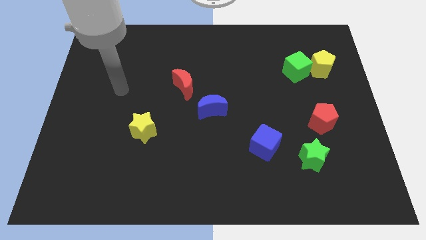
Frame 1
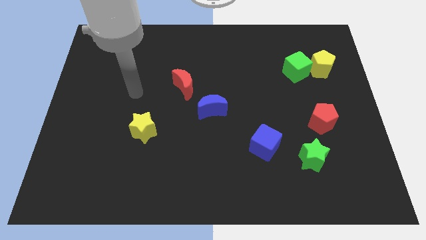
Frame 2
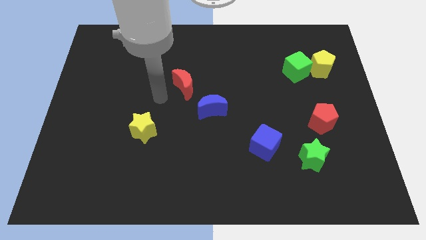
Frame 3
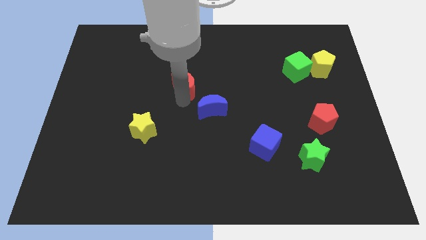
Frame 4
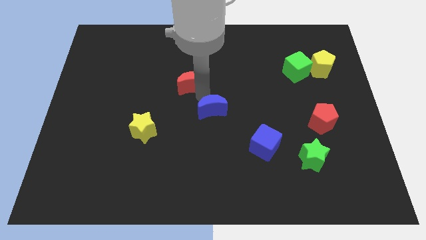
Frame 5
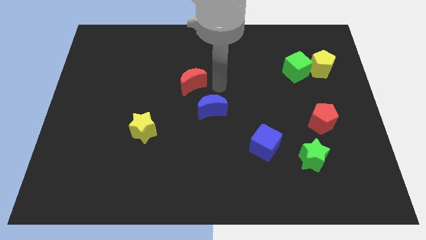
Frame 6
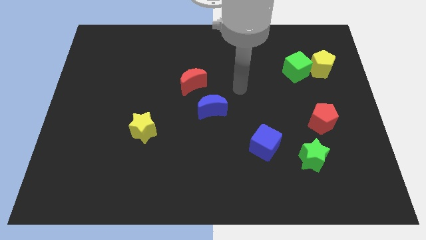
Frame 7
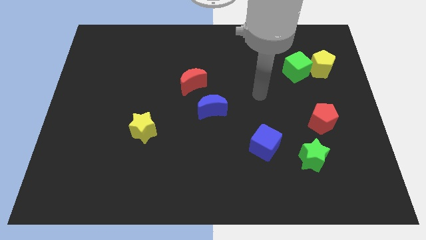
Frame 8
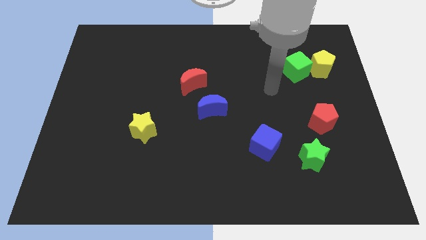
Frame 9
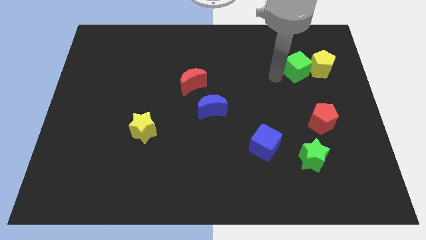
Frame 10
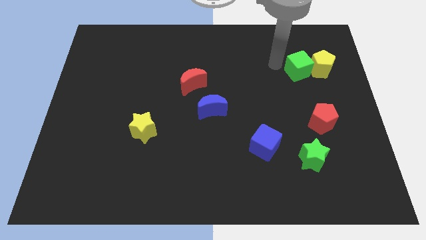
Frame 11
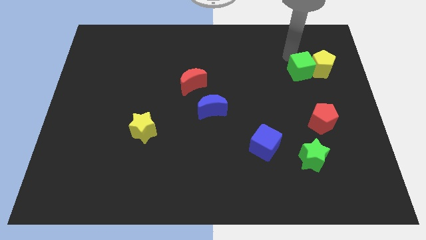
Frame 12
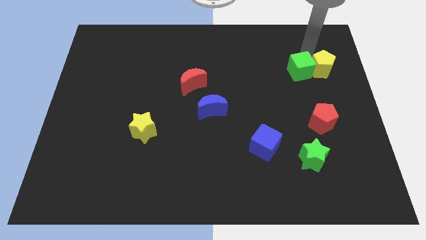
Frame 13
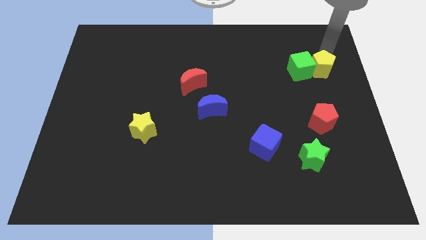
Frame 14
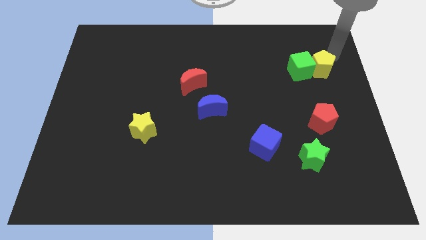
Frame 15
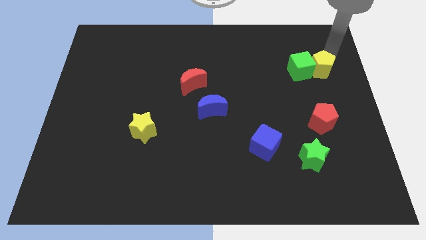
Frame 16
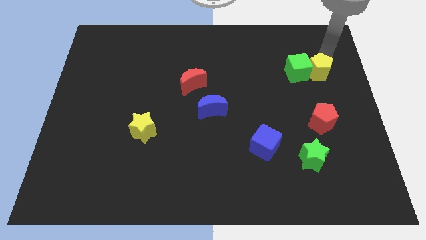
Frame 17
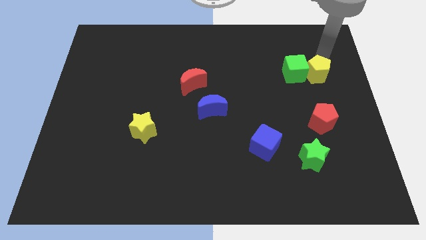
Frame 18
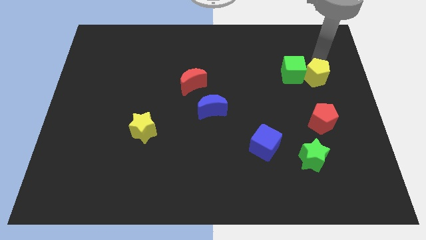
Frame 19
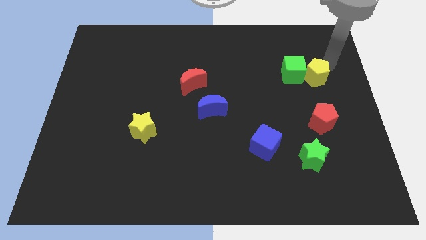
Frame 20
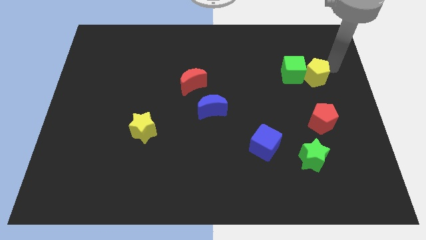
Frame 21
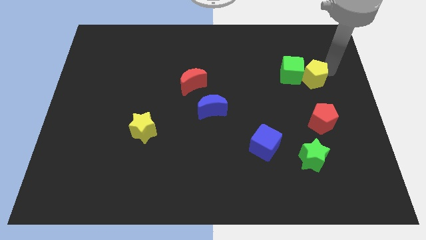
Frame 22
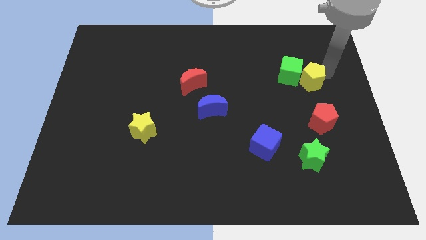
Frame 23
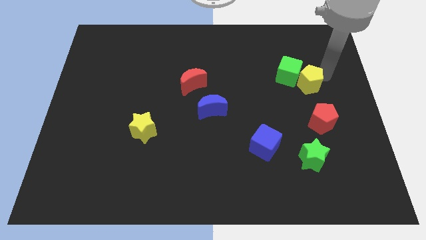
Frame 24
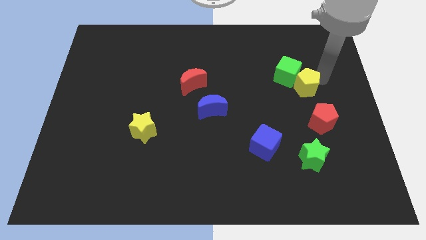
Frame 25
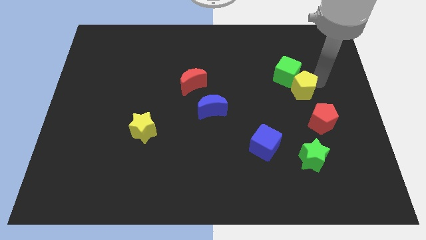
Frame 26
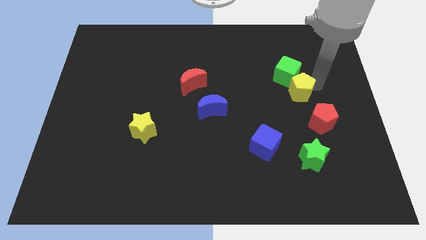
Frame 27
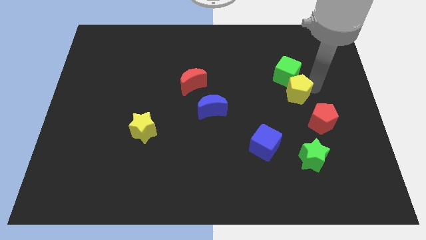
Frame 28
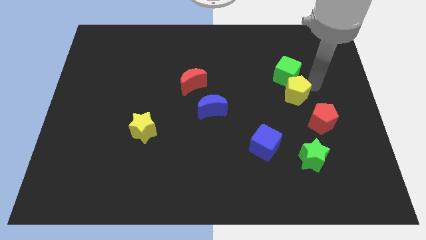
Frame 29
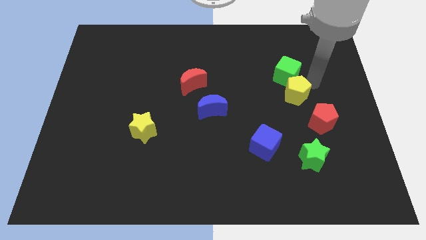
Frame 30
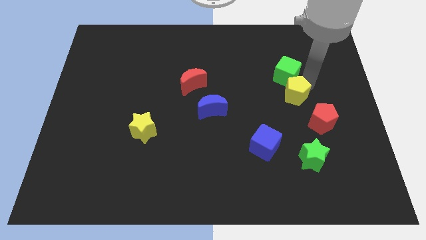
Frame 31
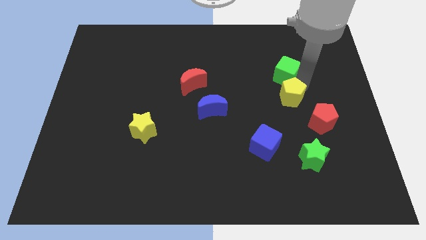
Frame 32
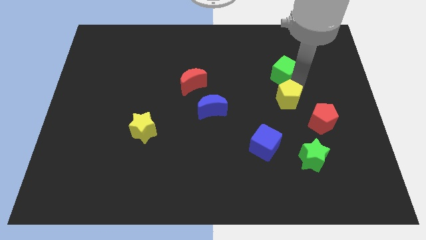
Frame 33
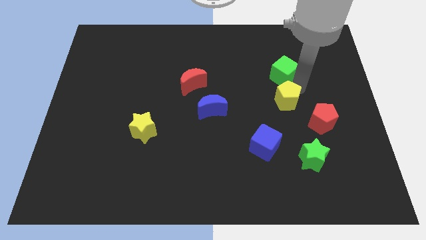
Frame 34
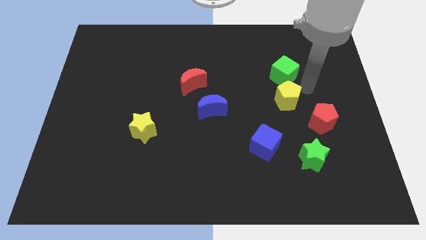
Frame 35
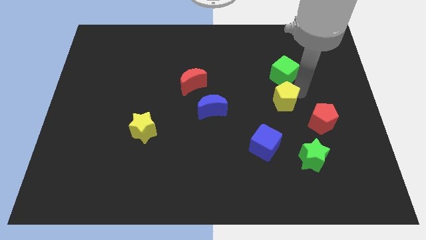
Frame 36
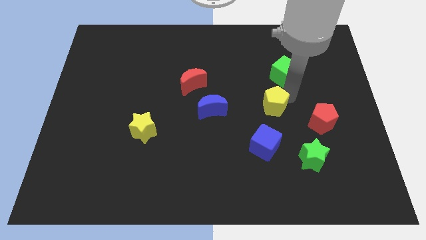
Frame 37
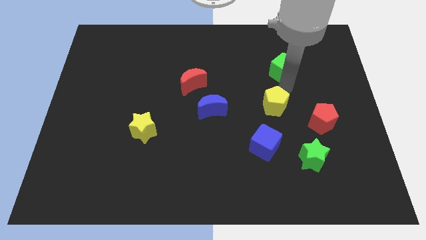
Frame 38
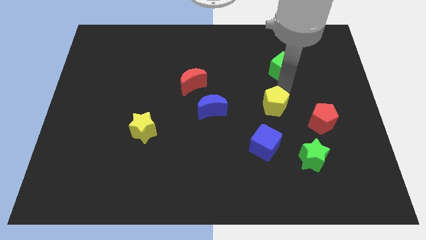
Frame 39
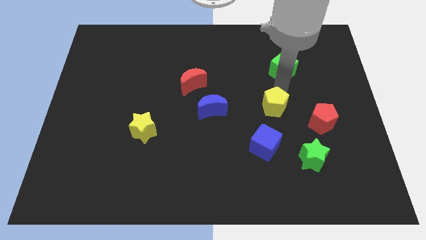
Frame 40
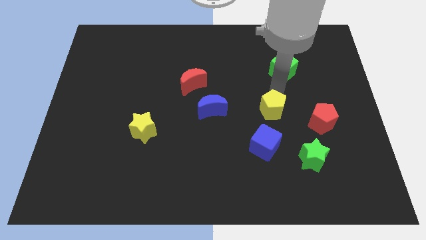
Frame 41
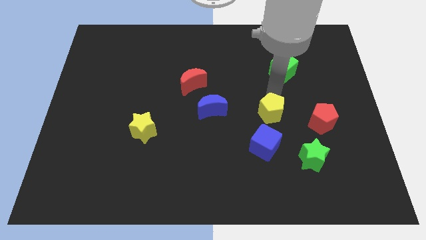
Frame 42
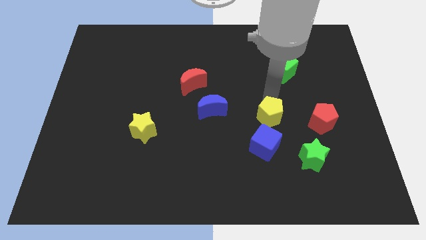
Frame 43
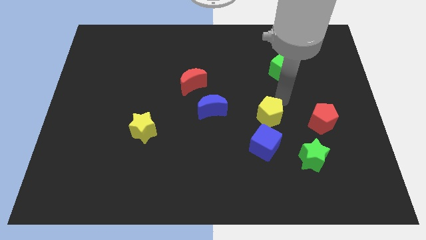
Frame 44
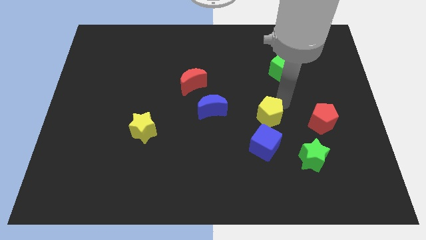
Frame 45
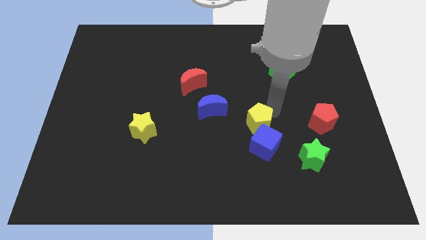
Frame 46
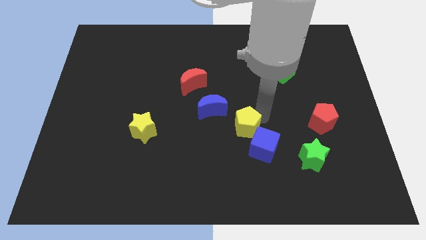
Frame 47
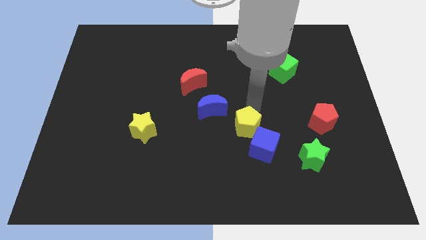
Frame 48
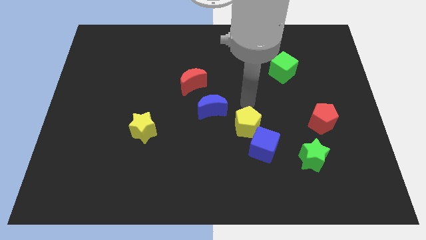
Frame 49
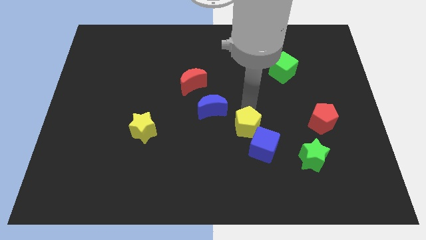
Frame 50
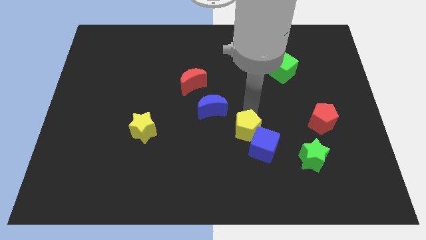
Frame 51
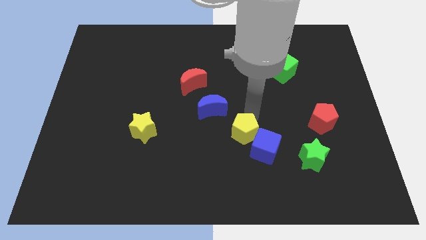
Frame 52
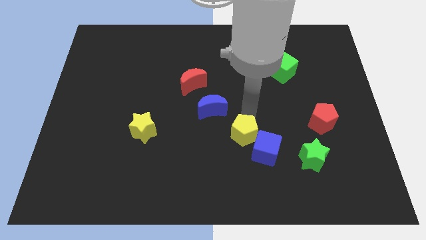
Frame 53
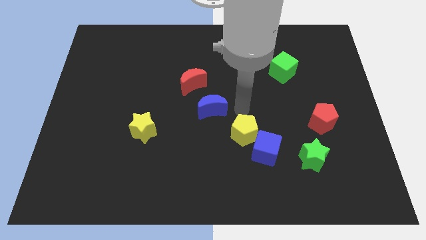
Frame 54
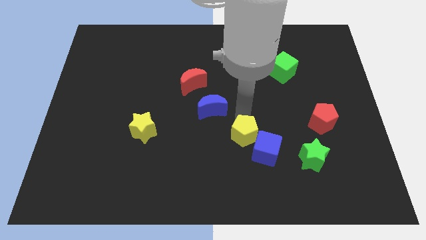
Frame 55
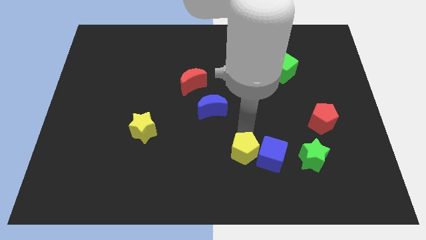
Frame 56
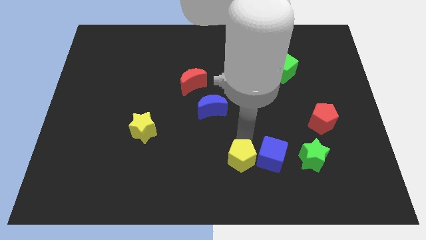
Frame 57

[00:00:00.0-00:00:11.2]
push the yellow pentagon to the bottom left side of the blue cube

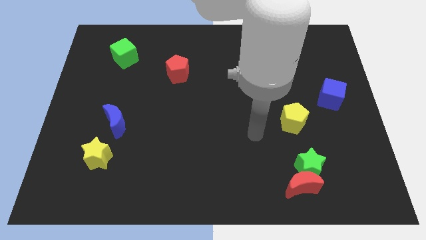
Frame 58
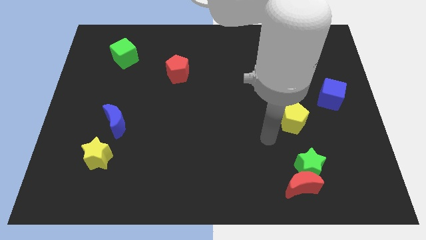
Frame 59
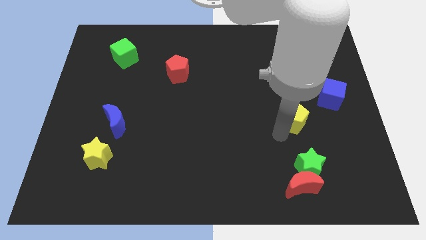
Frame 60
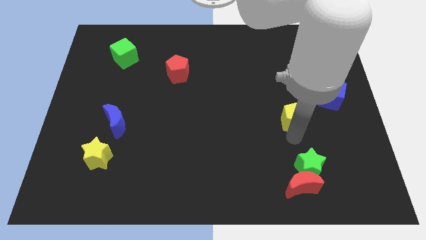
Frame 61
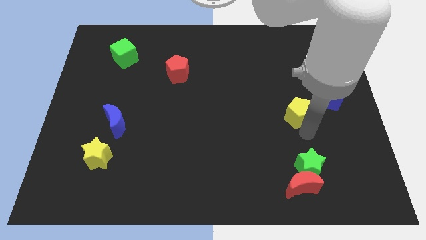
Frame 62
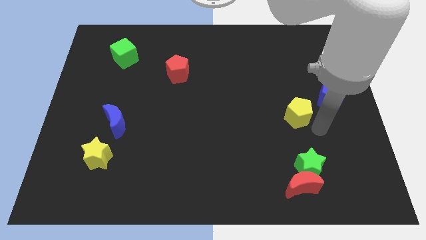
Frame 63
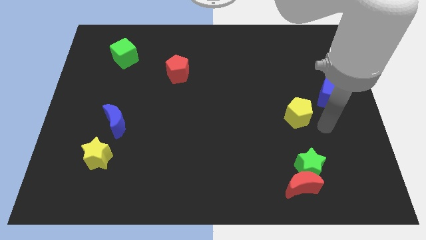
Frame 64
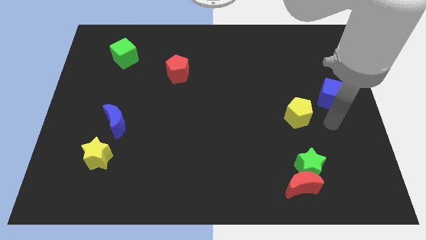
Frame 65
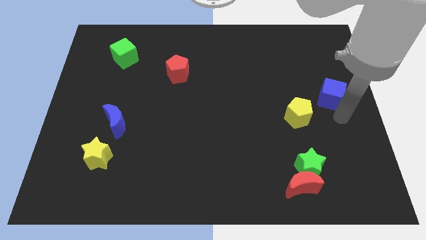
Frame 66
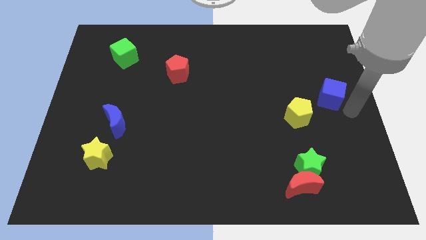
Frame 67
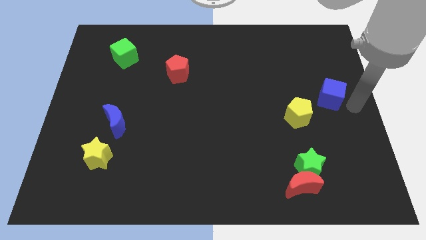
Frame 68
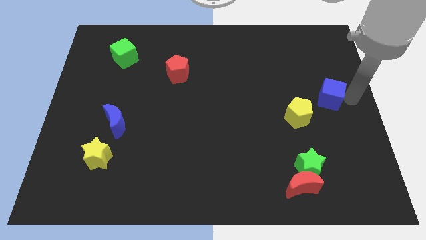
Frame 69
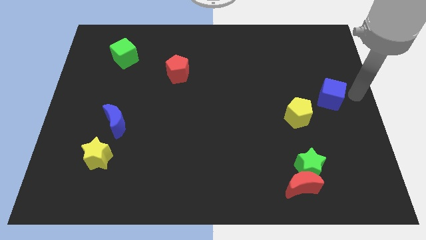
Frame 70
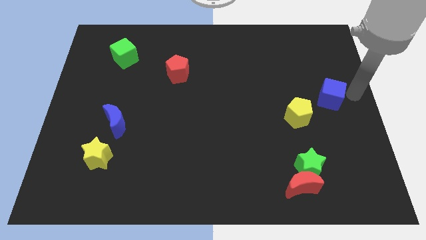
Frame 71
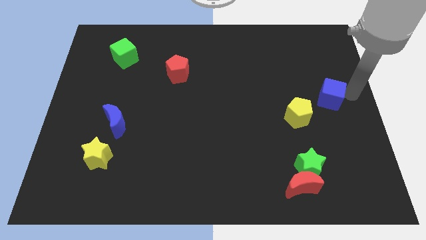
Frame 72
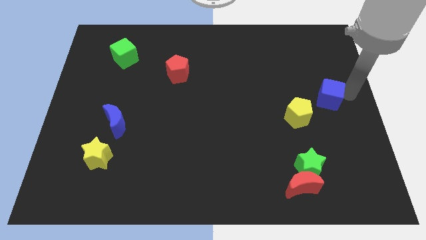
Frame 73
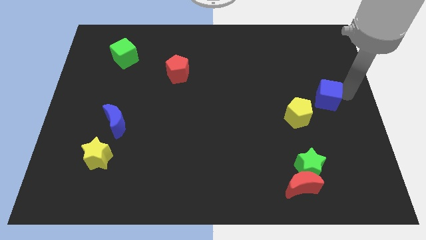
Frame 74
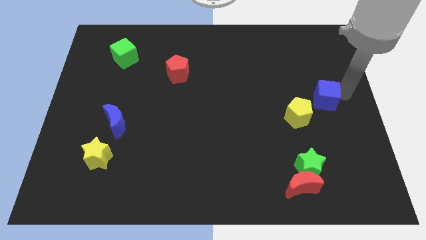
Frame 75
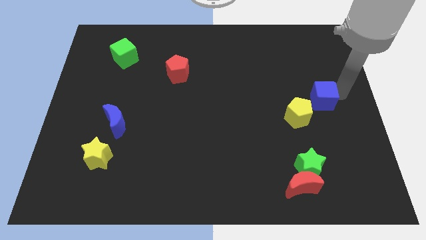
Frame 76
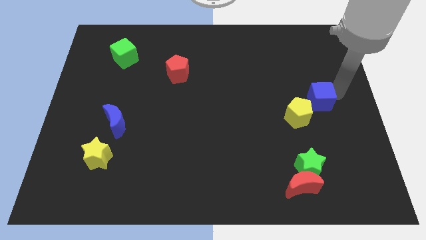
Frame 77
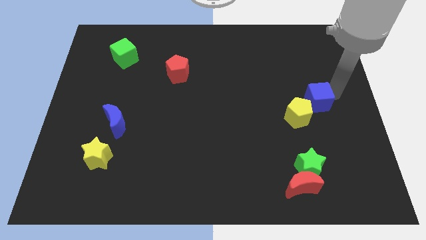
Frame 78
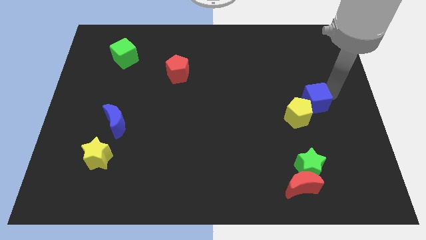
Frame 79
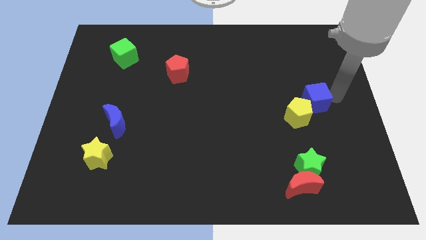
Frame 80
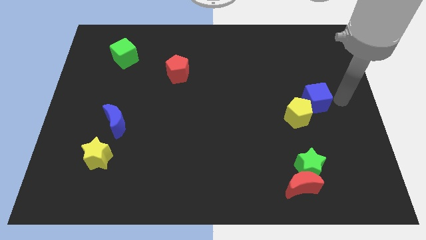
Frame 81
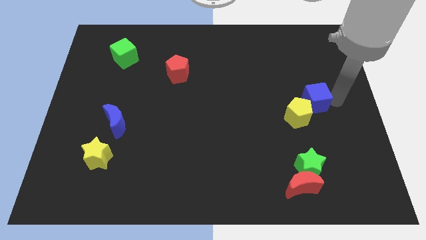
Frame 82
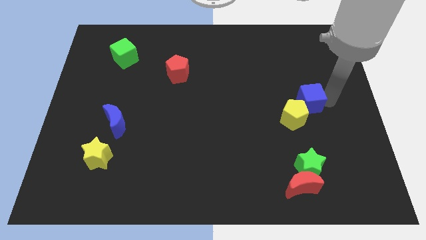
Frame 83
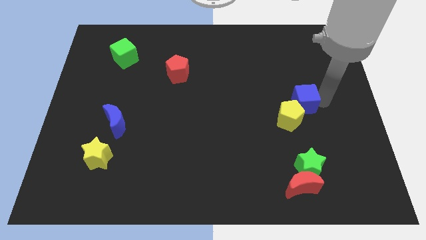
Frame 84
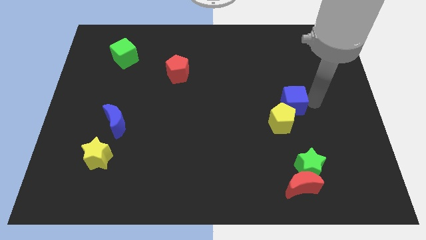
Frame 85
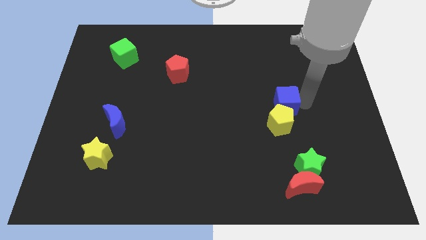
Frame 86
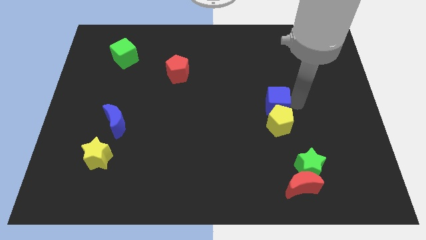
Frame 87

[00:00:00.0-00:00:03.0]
move the blue cube diagonally up and to the left of the yellow pentagon
